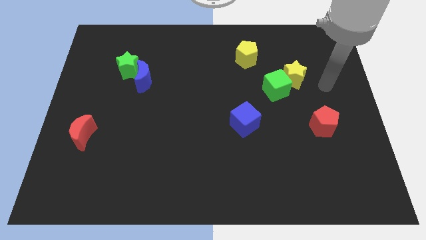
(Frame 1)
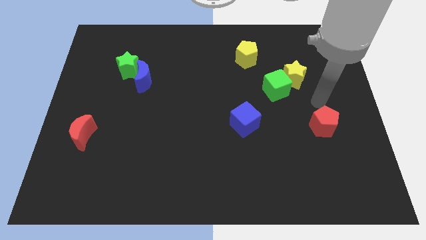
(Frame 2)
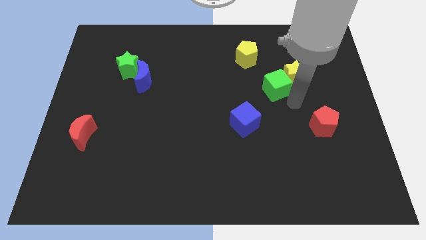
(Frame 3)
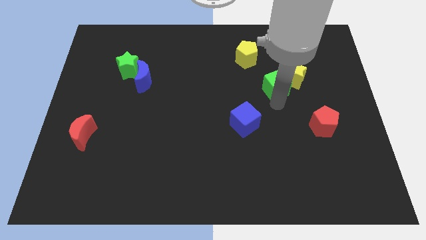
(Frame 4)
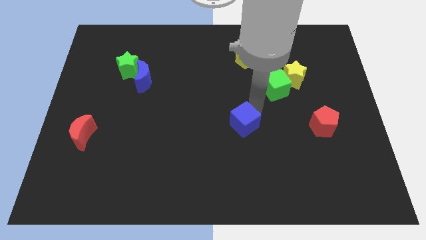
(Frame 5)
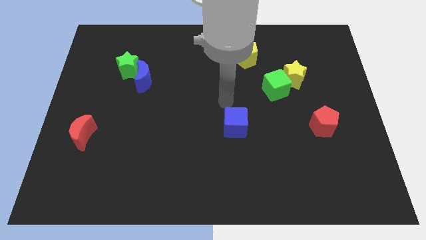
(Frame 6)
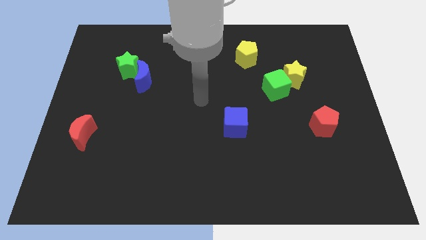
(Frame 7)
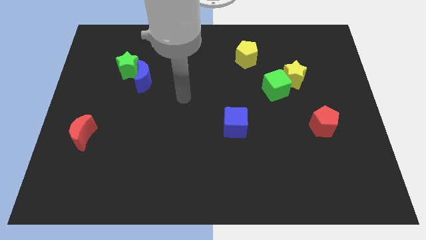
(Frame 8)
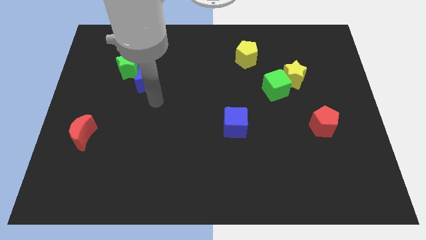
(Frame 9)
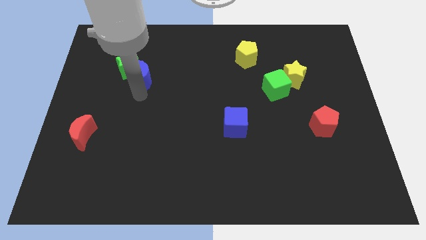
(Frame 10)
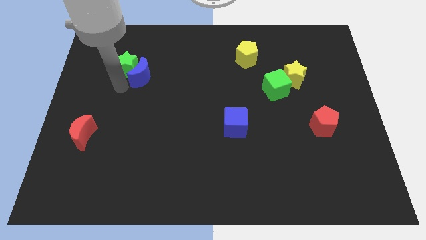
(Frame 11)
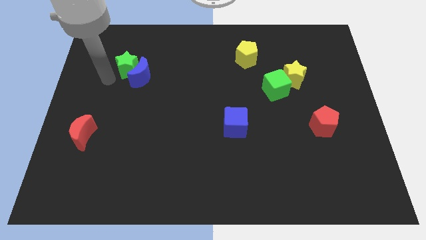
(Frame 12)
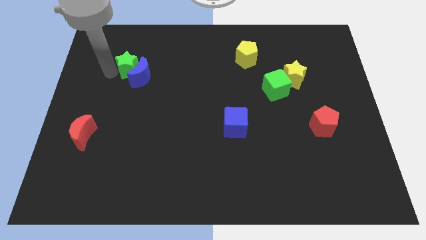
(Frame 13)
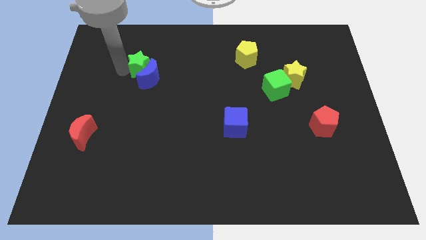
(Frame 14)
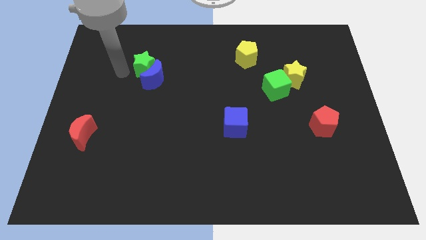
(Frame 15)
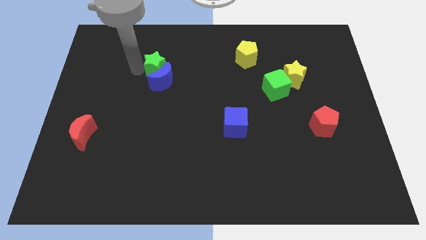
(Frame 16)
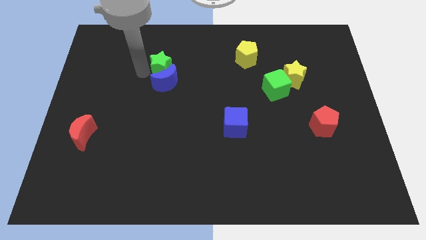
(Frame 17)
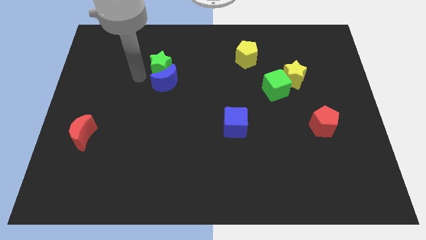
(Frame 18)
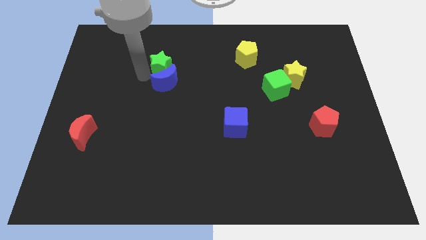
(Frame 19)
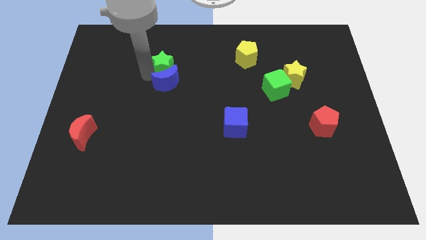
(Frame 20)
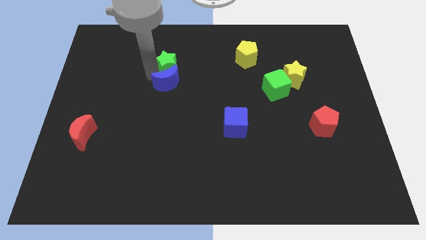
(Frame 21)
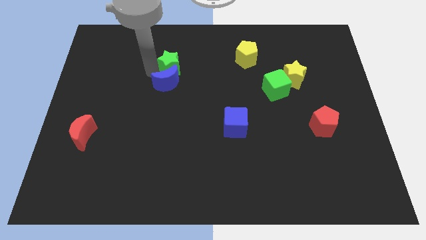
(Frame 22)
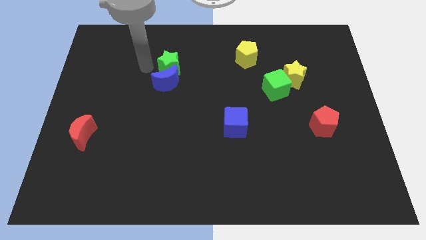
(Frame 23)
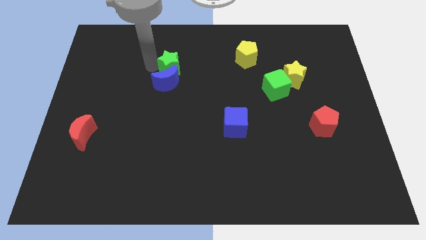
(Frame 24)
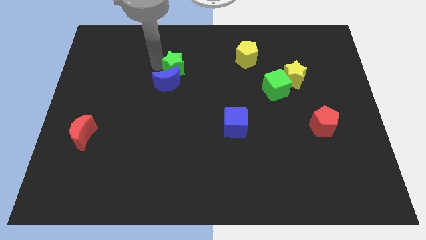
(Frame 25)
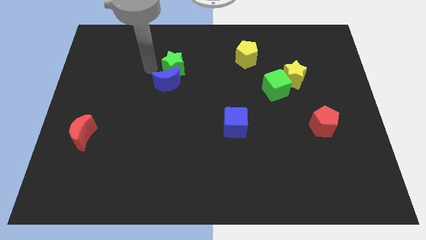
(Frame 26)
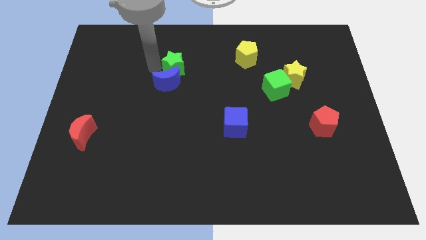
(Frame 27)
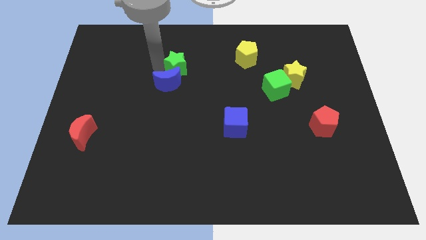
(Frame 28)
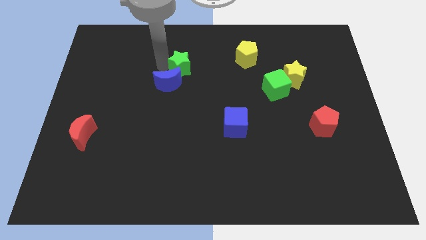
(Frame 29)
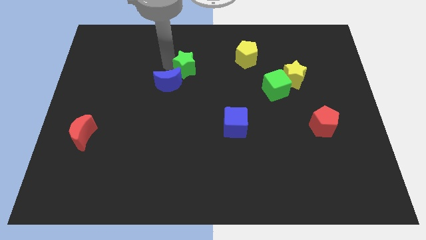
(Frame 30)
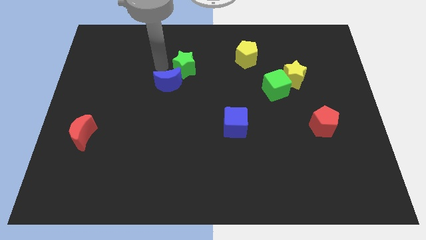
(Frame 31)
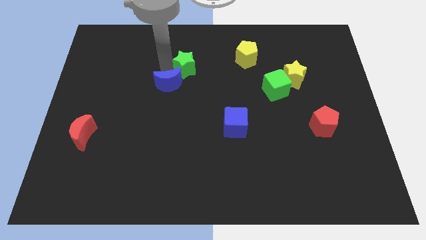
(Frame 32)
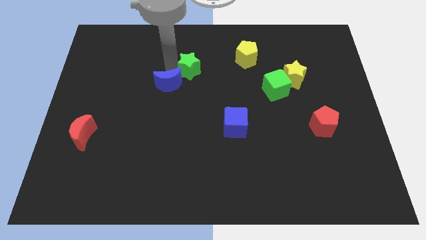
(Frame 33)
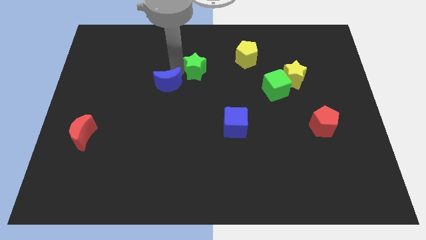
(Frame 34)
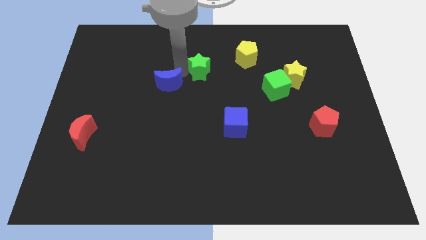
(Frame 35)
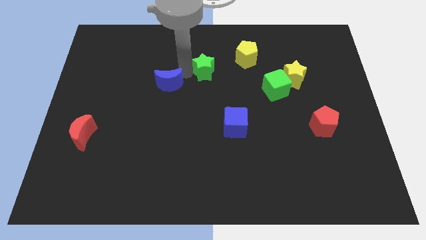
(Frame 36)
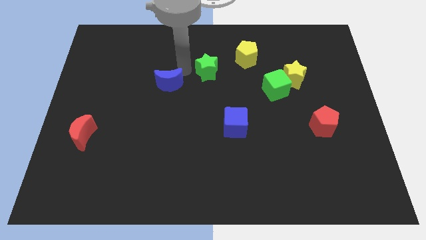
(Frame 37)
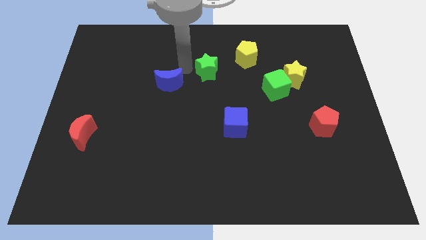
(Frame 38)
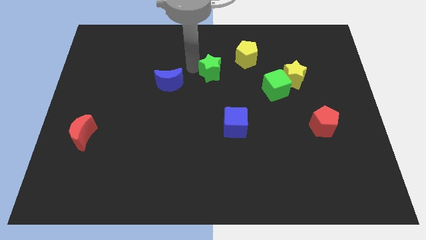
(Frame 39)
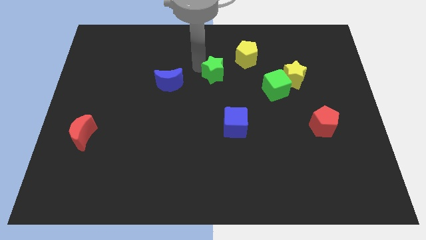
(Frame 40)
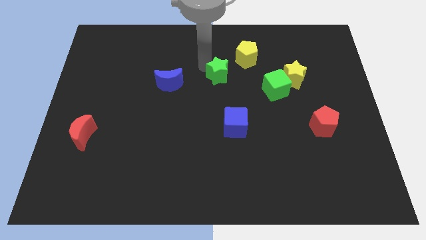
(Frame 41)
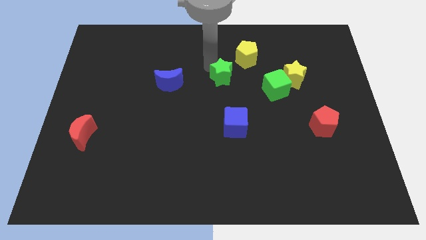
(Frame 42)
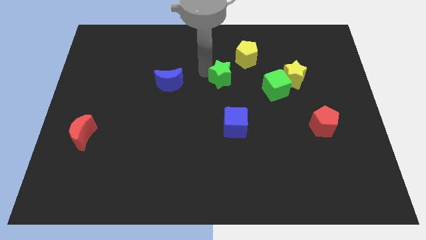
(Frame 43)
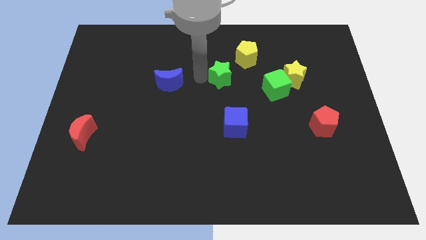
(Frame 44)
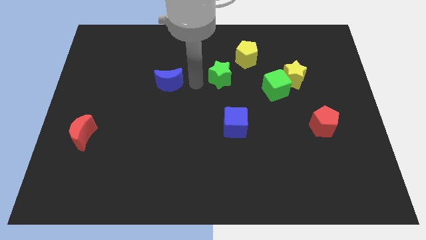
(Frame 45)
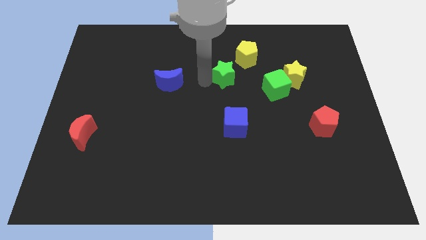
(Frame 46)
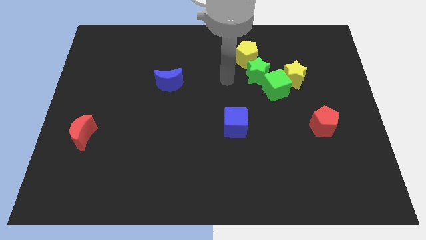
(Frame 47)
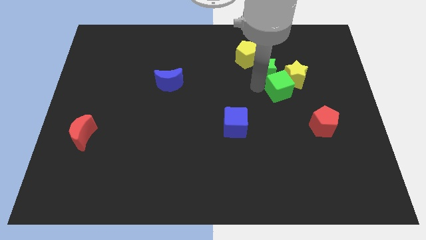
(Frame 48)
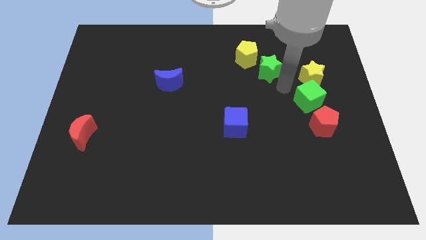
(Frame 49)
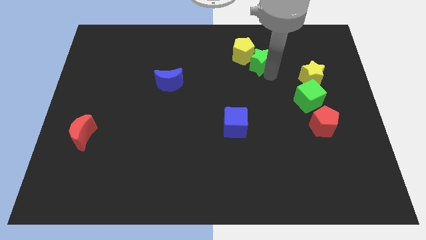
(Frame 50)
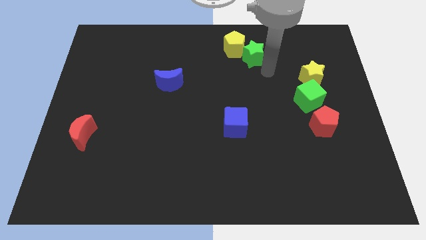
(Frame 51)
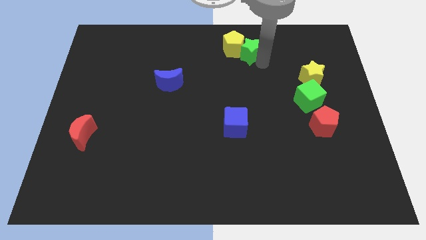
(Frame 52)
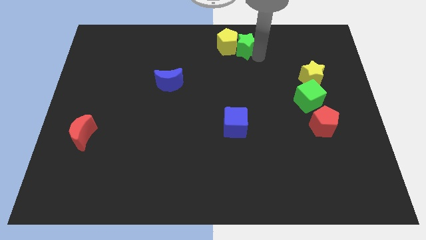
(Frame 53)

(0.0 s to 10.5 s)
move the green star to the towards your base
